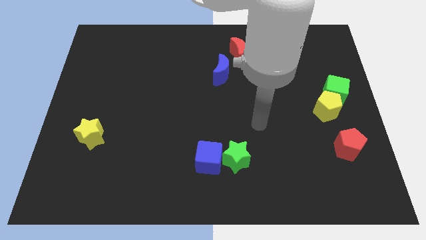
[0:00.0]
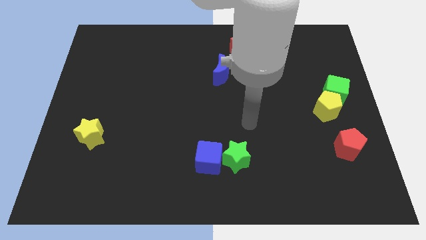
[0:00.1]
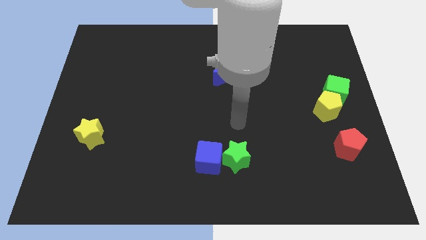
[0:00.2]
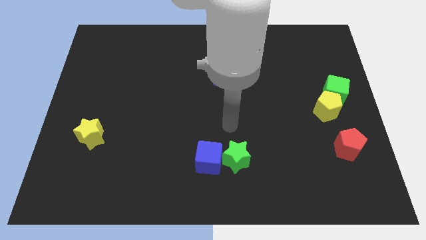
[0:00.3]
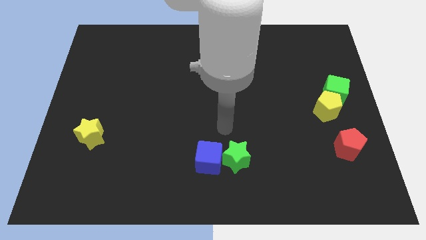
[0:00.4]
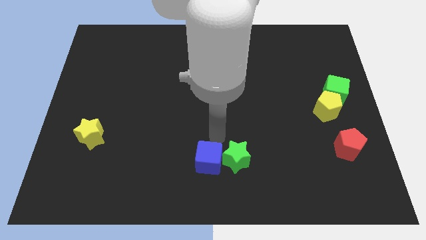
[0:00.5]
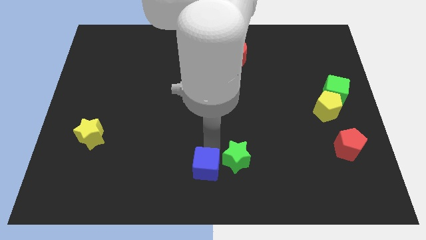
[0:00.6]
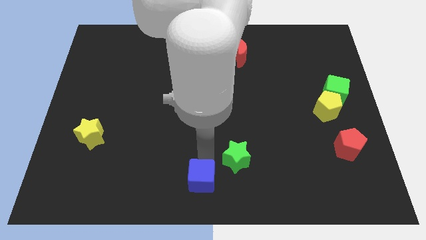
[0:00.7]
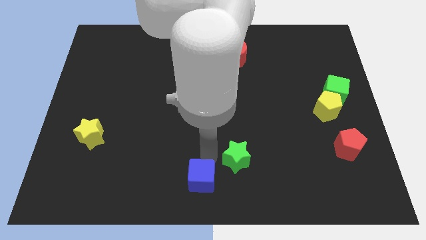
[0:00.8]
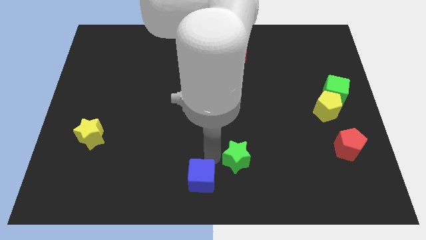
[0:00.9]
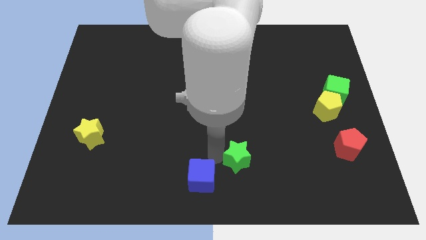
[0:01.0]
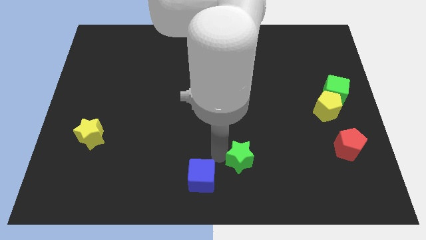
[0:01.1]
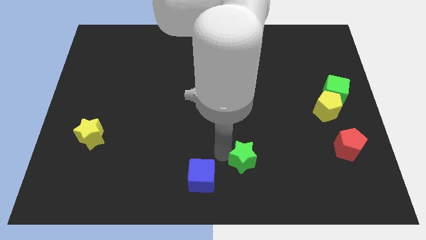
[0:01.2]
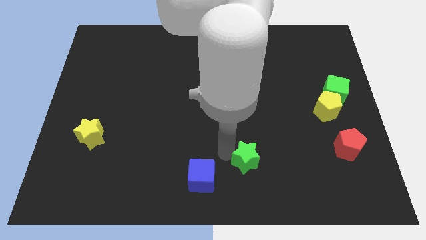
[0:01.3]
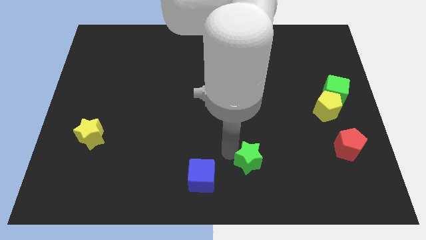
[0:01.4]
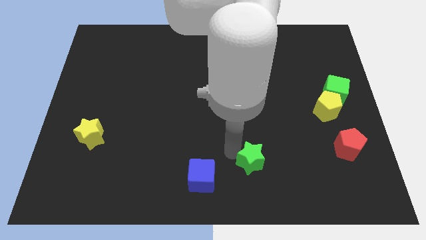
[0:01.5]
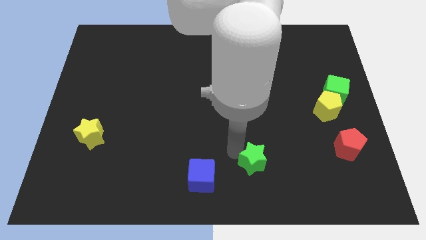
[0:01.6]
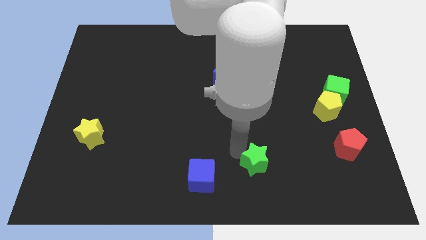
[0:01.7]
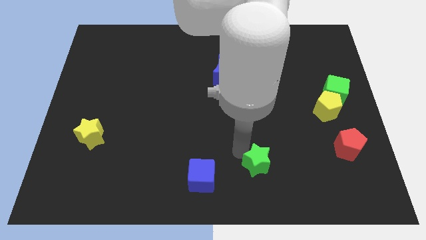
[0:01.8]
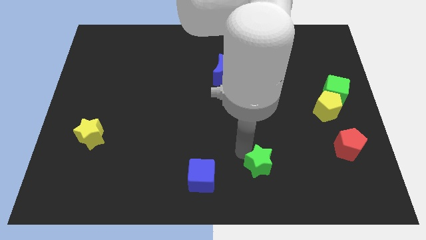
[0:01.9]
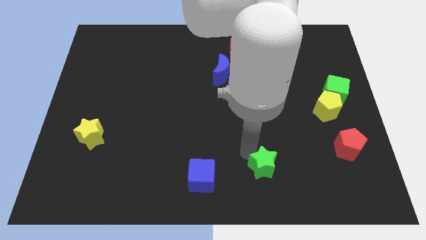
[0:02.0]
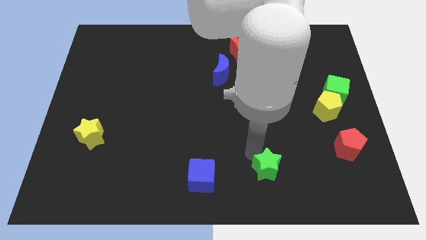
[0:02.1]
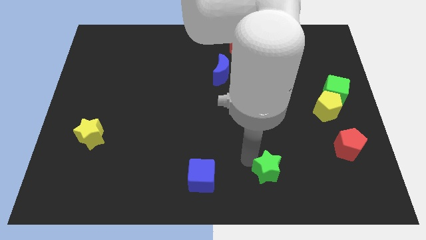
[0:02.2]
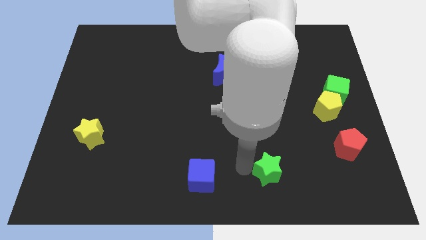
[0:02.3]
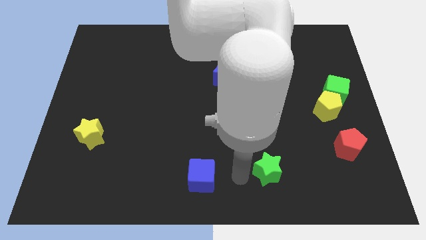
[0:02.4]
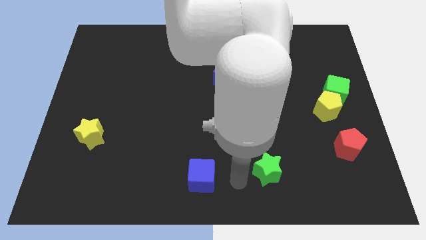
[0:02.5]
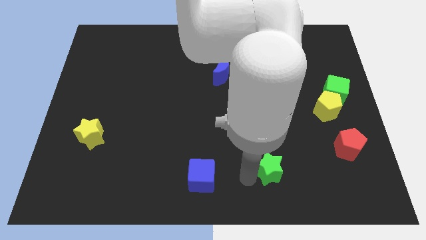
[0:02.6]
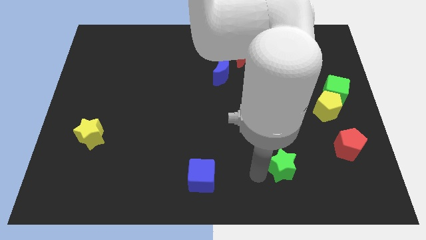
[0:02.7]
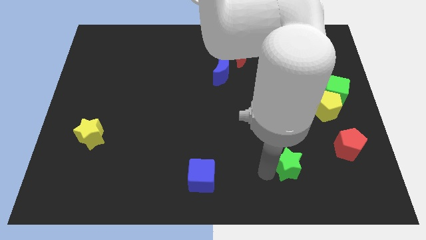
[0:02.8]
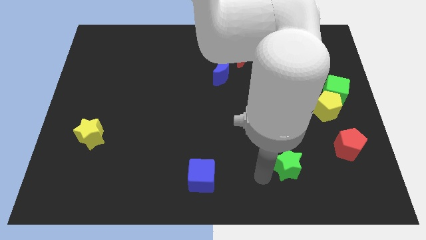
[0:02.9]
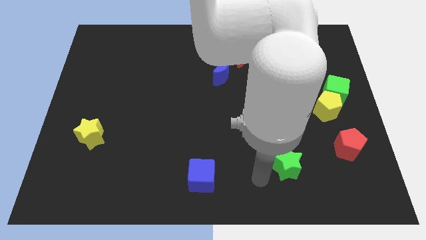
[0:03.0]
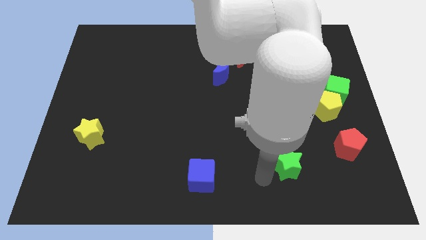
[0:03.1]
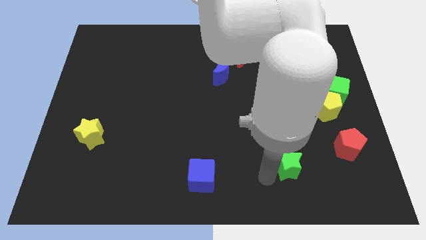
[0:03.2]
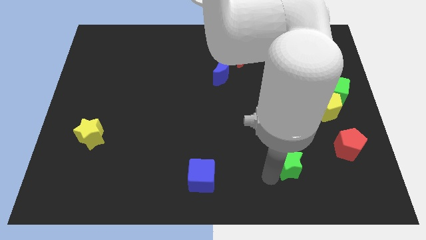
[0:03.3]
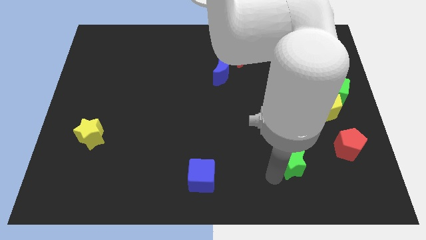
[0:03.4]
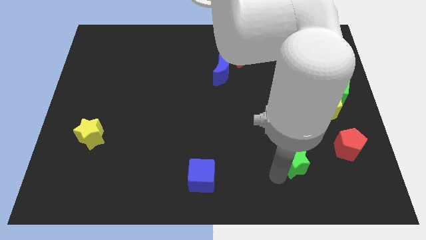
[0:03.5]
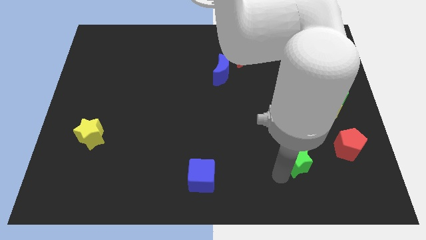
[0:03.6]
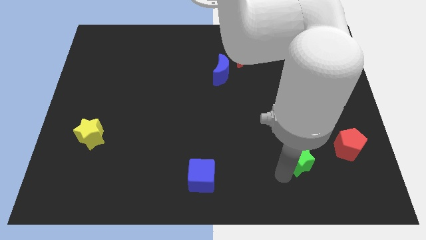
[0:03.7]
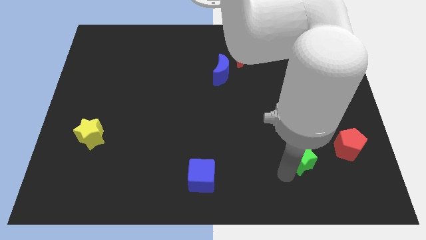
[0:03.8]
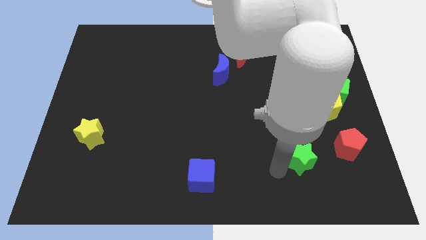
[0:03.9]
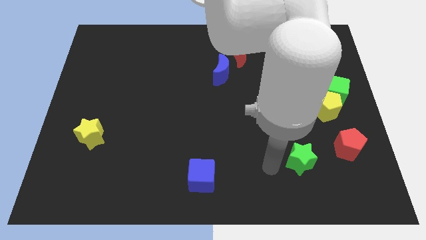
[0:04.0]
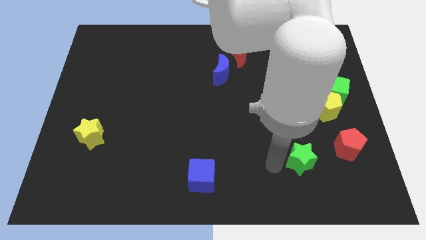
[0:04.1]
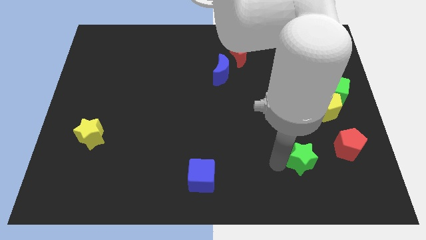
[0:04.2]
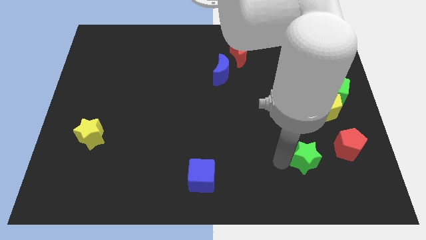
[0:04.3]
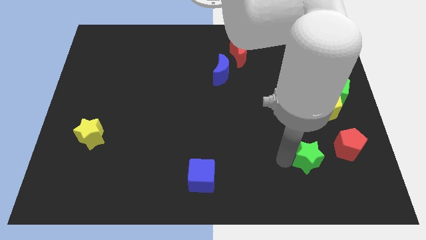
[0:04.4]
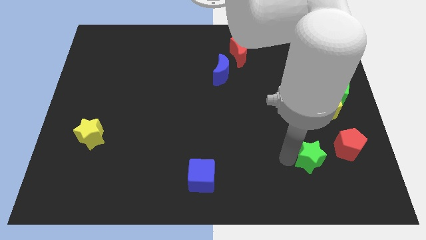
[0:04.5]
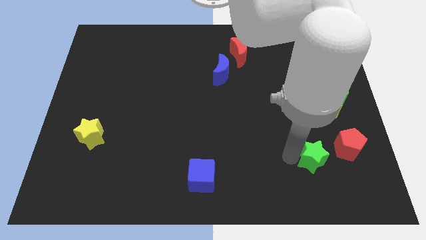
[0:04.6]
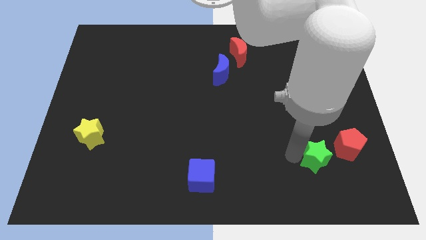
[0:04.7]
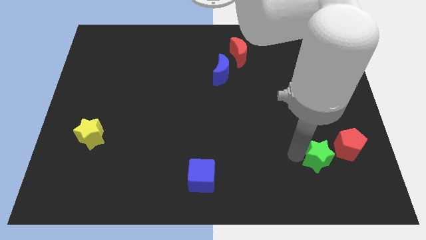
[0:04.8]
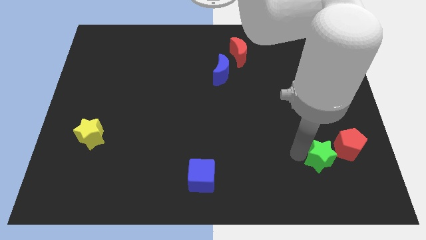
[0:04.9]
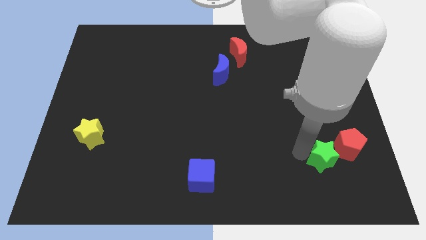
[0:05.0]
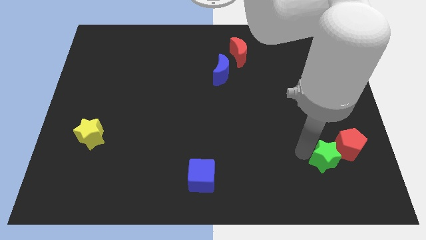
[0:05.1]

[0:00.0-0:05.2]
put the green star to the red pentagon

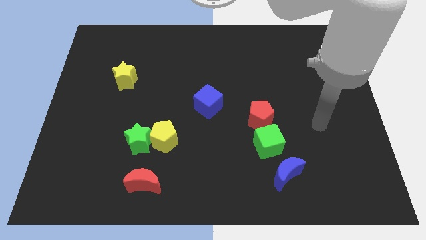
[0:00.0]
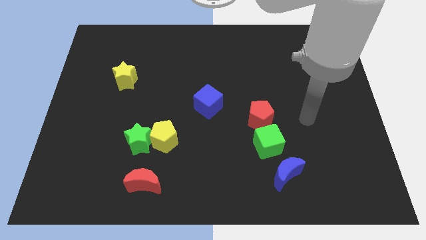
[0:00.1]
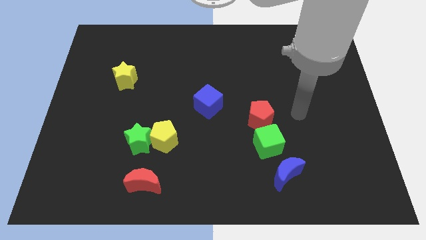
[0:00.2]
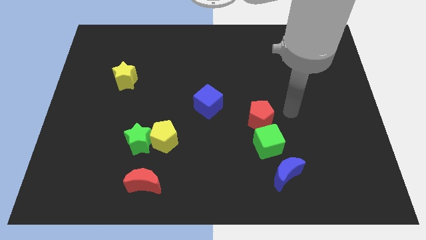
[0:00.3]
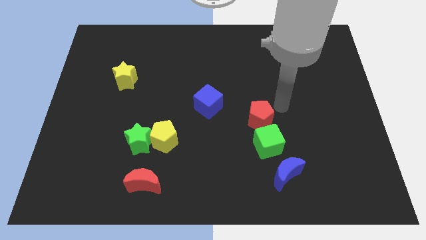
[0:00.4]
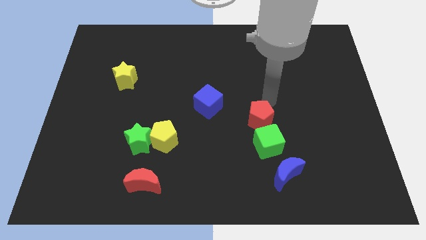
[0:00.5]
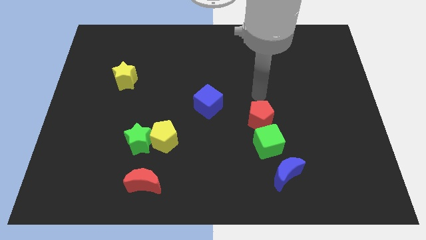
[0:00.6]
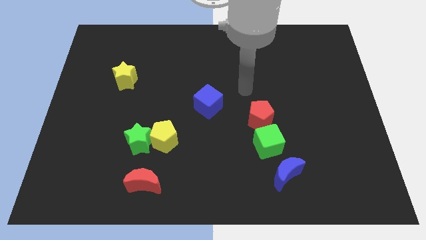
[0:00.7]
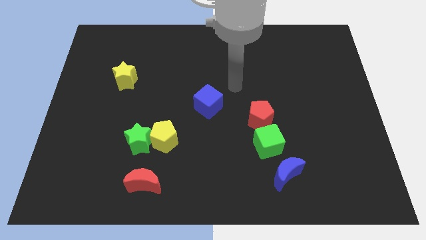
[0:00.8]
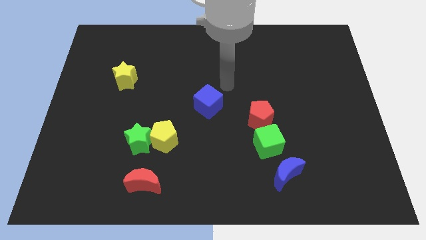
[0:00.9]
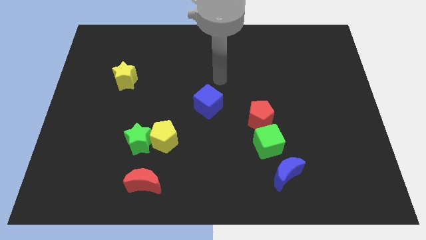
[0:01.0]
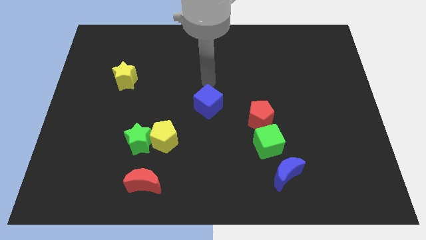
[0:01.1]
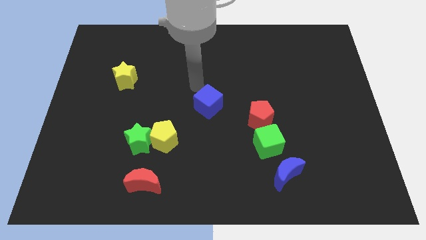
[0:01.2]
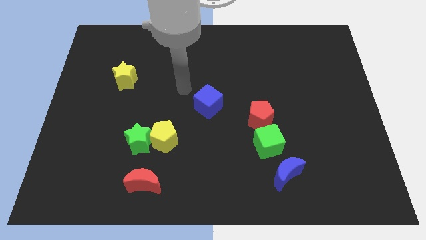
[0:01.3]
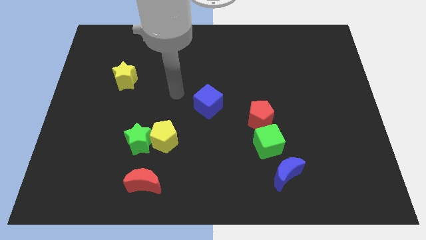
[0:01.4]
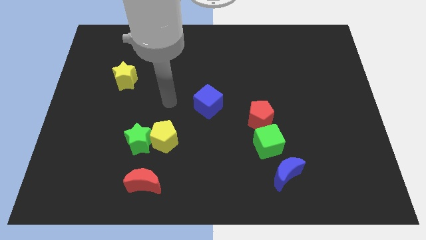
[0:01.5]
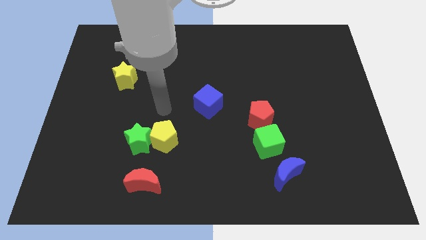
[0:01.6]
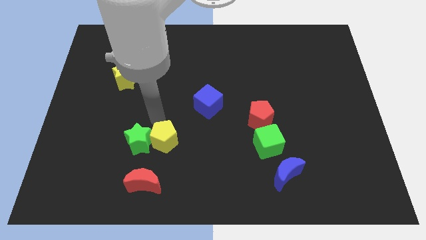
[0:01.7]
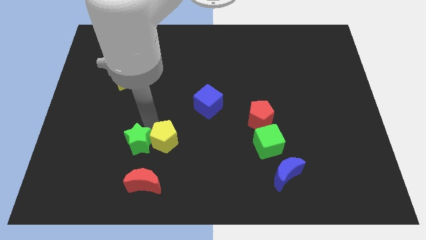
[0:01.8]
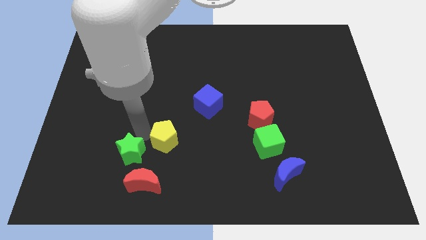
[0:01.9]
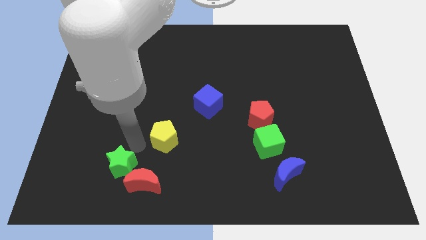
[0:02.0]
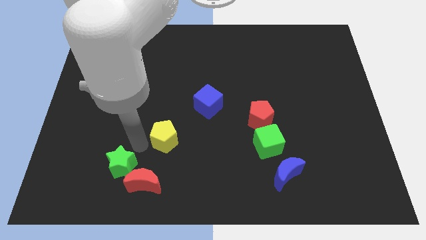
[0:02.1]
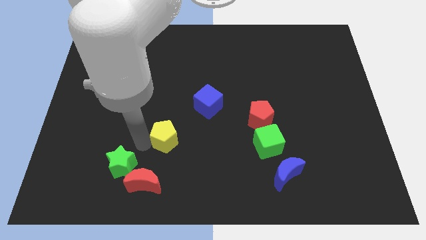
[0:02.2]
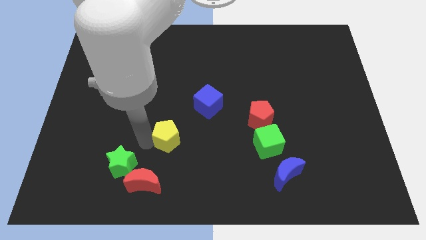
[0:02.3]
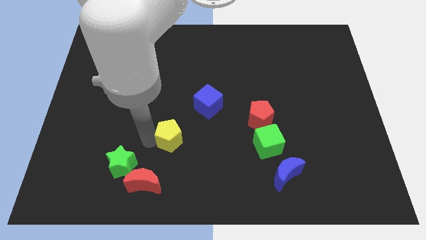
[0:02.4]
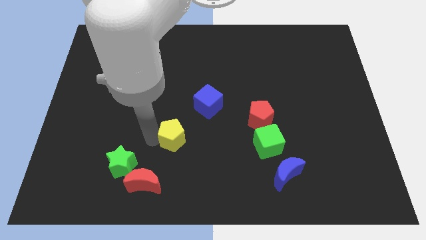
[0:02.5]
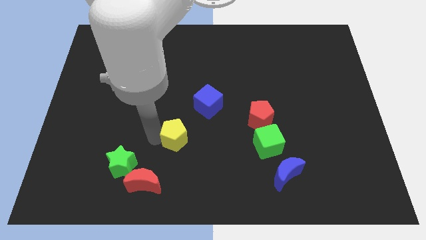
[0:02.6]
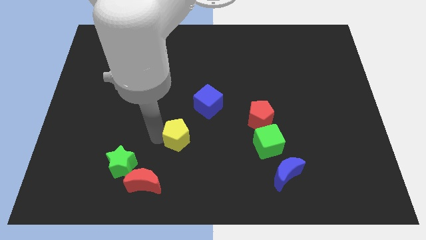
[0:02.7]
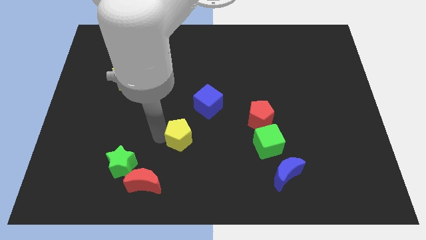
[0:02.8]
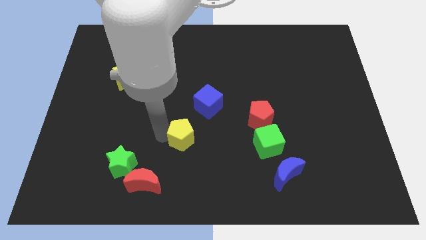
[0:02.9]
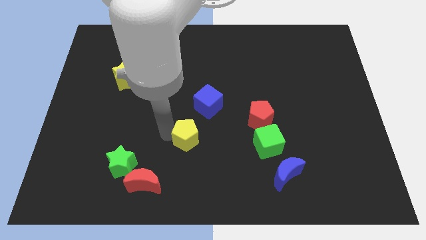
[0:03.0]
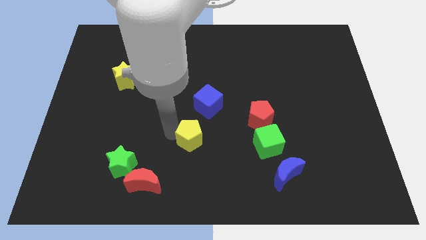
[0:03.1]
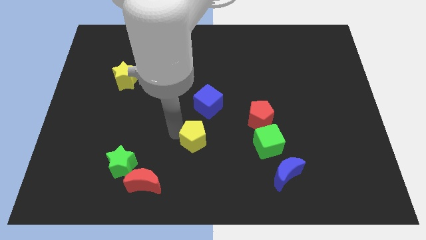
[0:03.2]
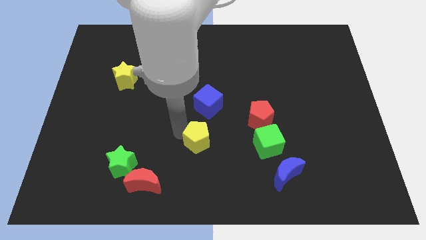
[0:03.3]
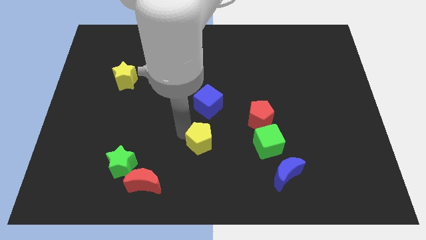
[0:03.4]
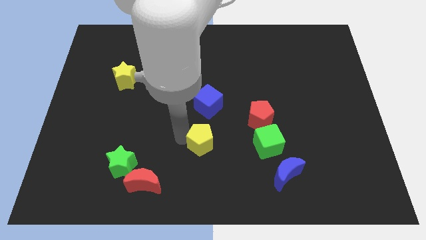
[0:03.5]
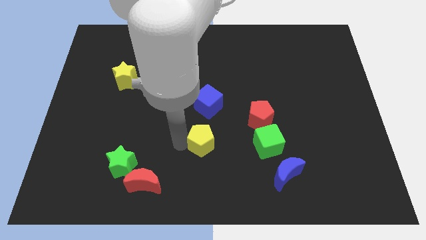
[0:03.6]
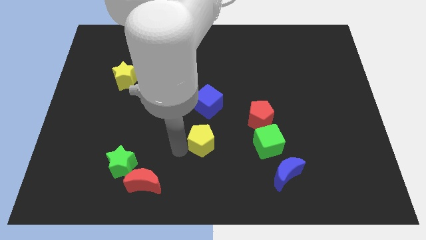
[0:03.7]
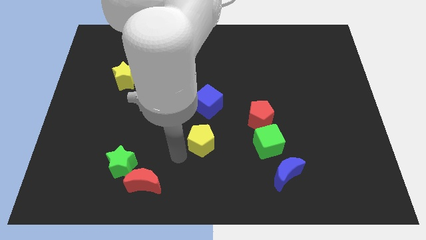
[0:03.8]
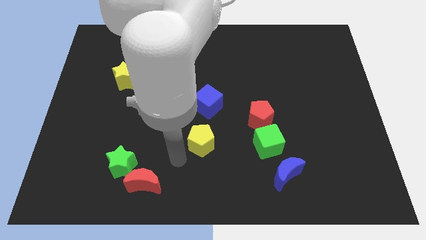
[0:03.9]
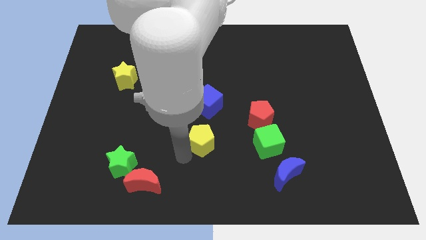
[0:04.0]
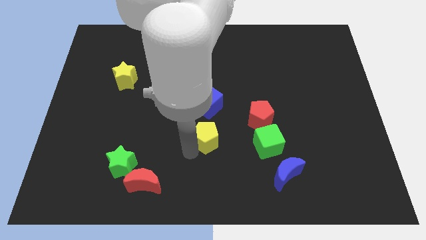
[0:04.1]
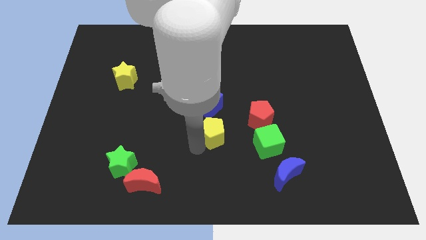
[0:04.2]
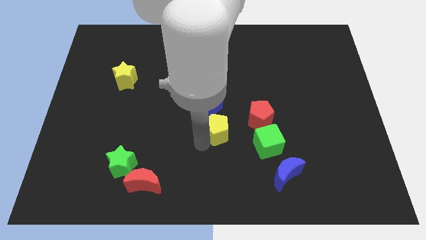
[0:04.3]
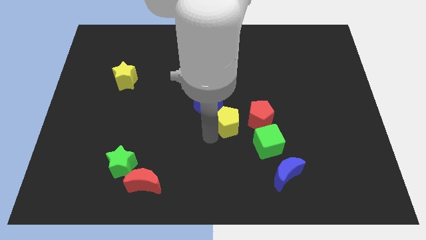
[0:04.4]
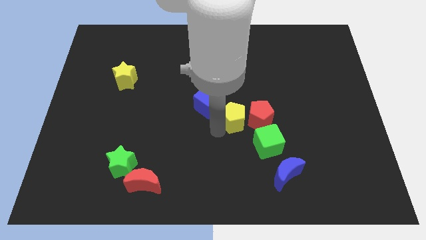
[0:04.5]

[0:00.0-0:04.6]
put the yellow pentagon towards the red pentagon
